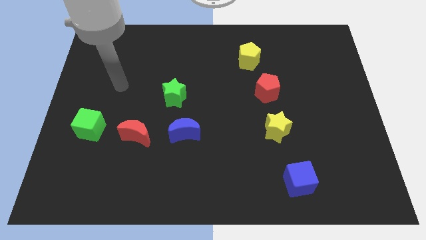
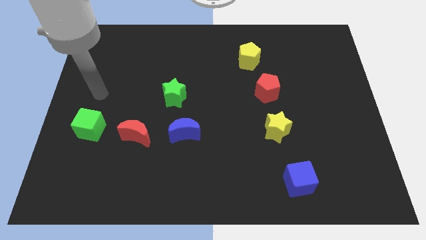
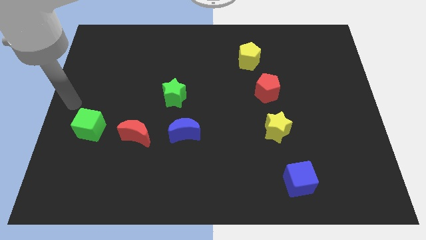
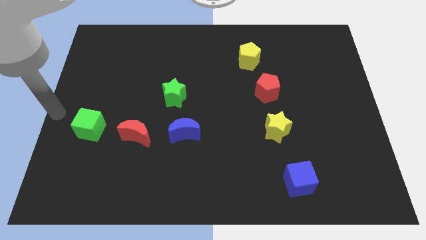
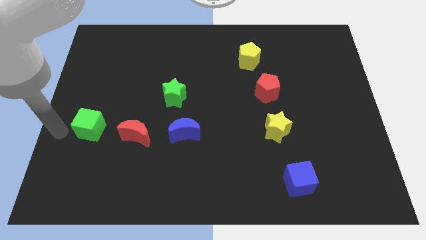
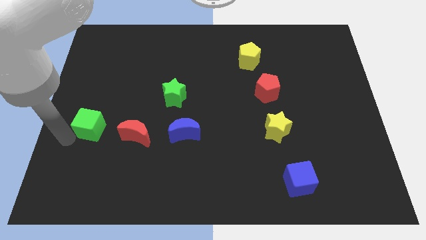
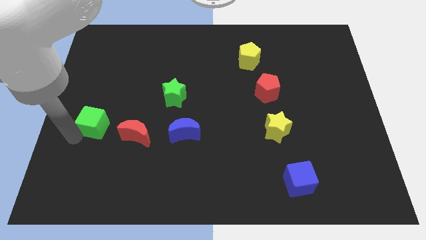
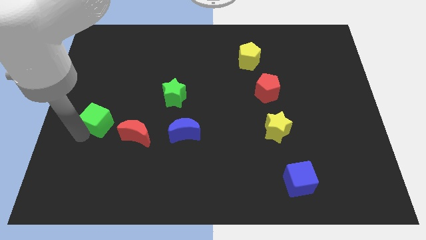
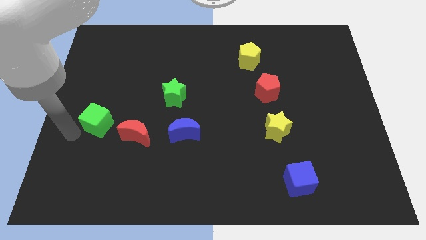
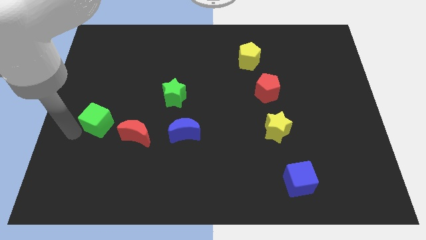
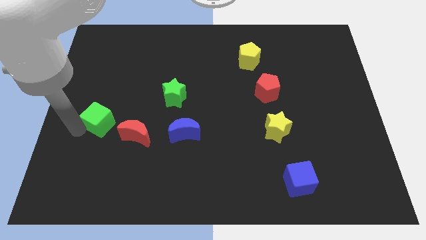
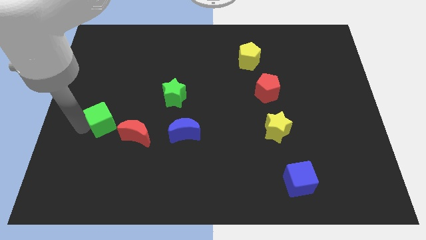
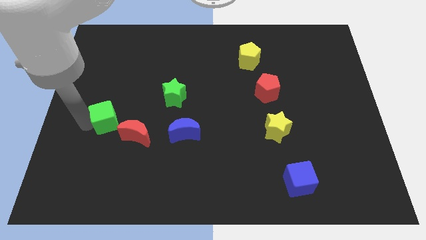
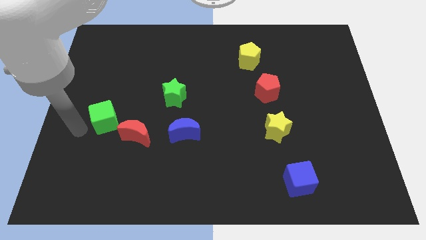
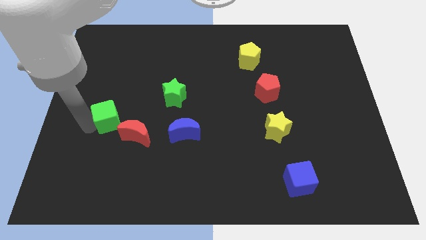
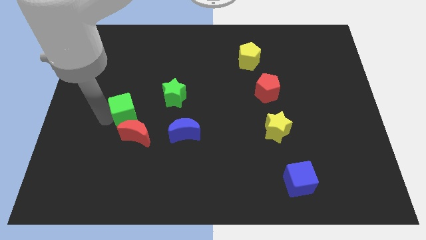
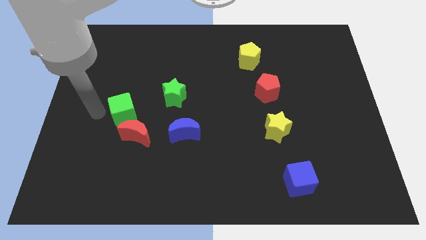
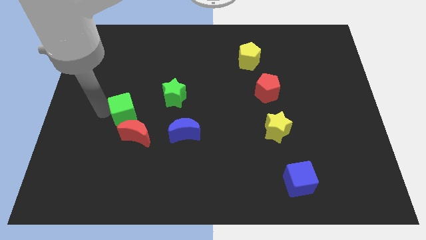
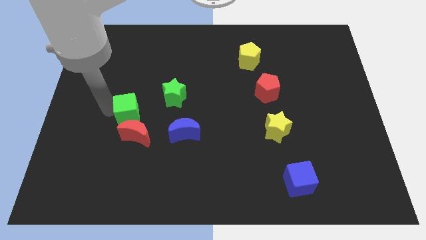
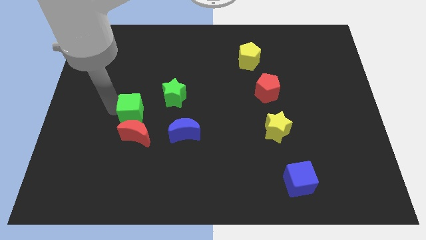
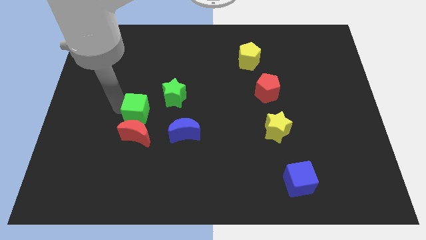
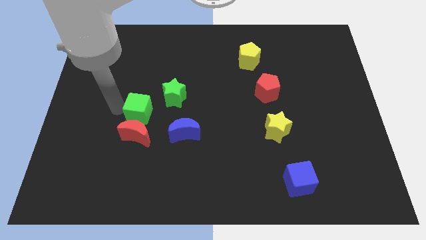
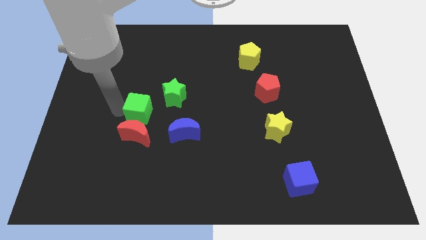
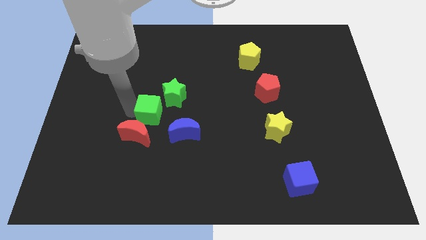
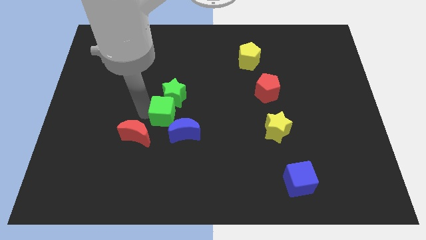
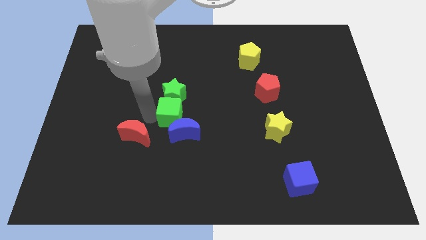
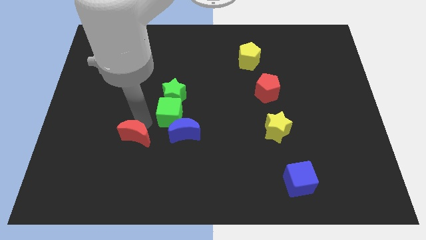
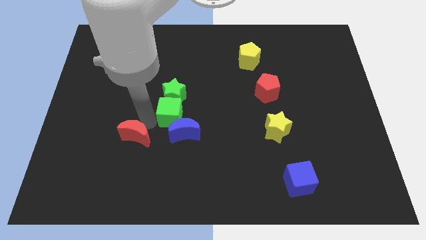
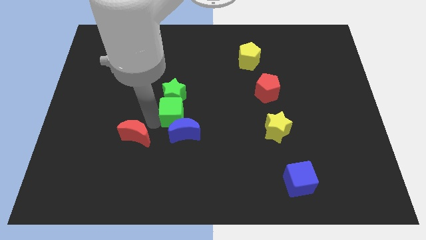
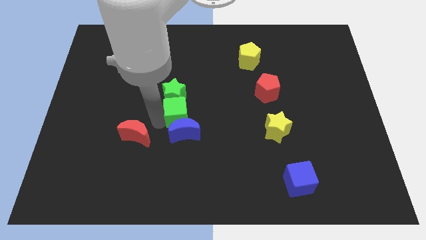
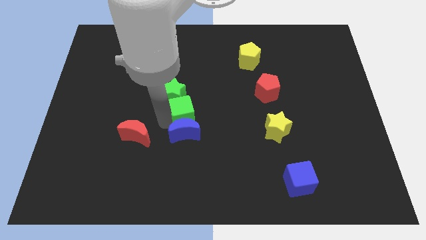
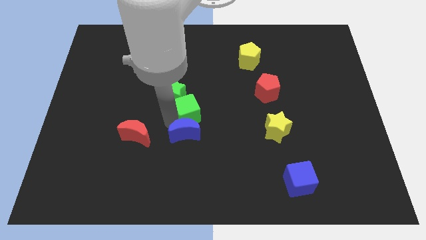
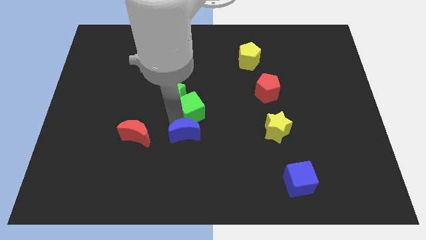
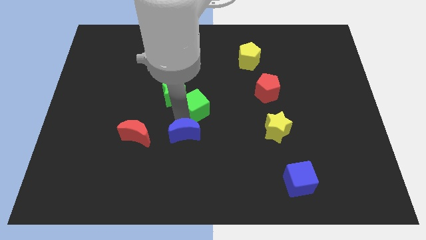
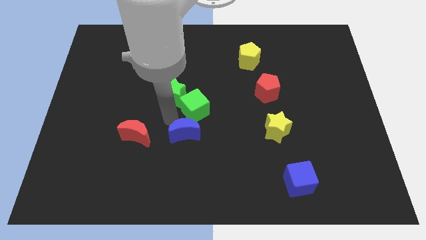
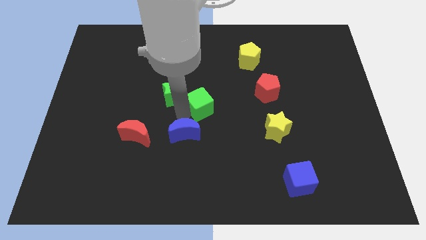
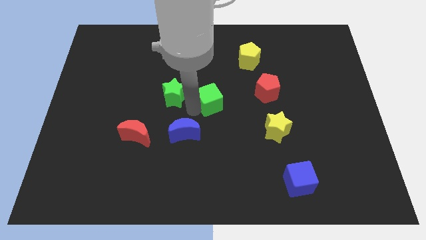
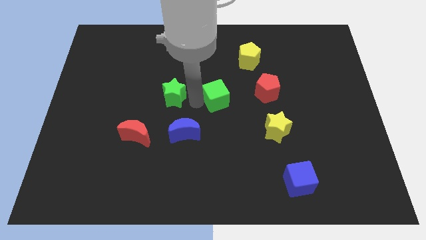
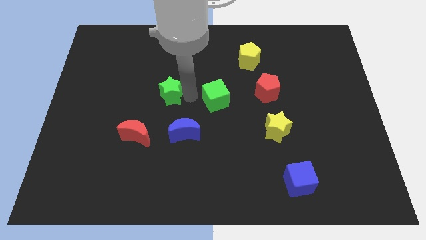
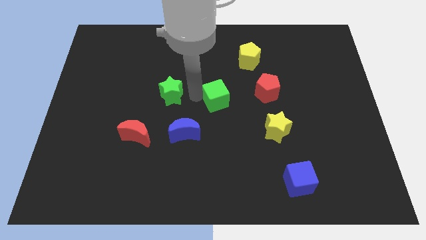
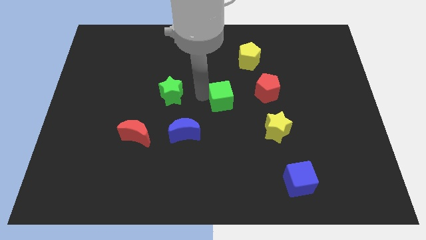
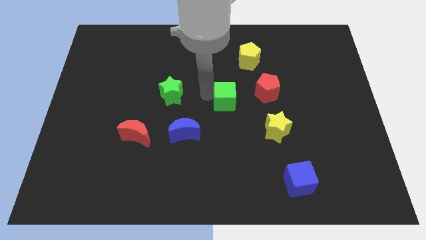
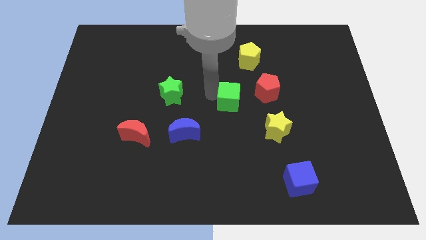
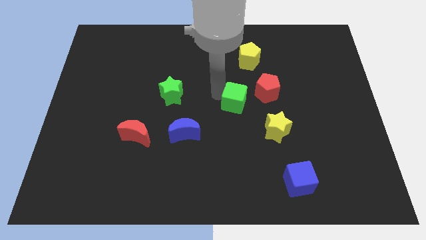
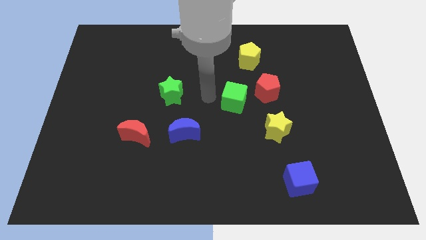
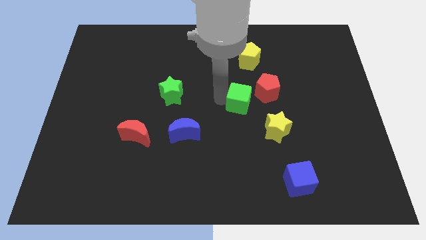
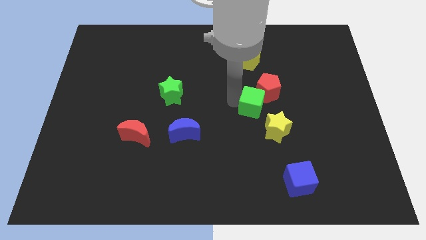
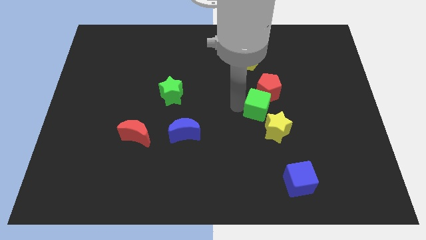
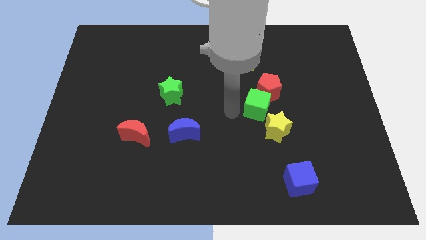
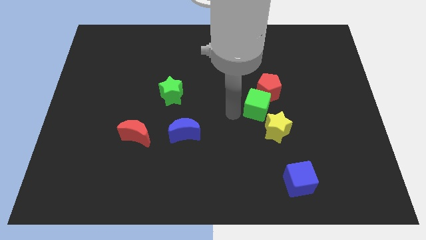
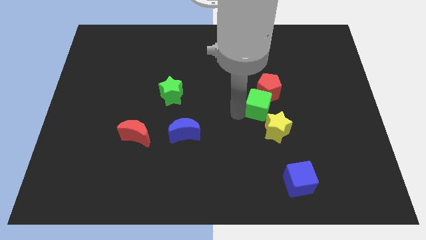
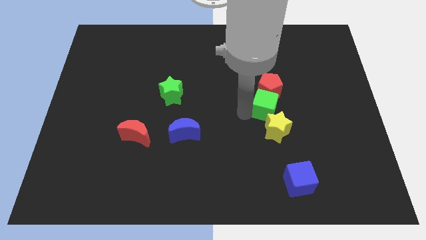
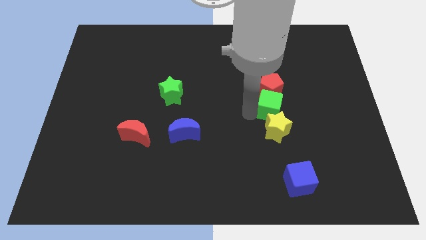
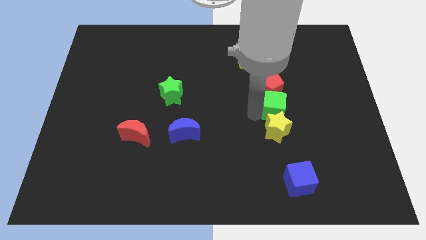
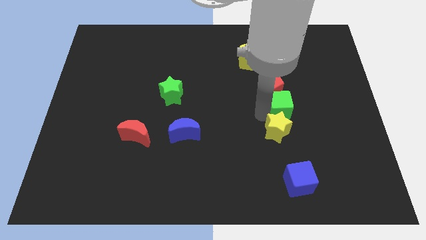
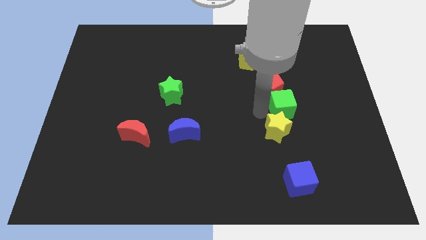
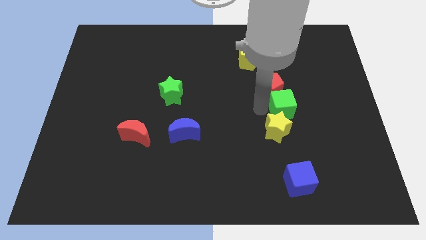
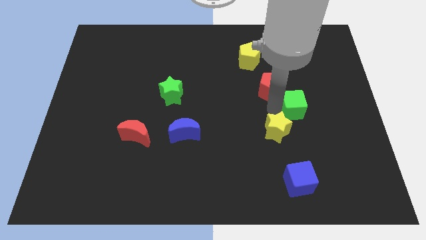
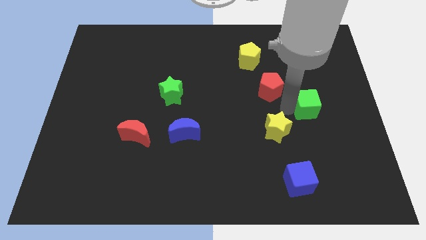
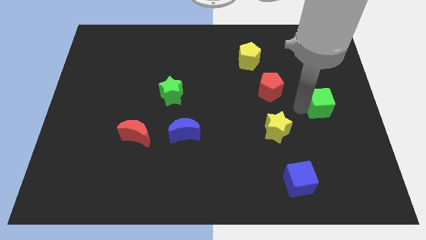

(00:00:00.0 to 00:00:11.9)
slide the green cube to the right side of the board

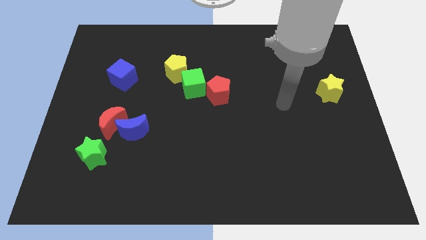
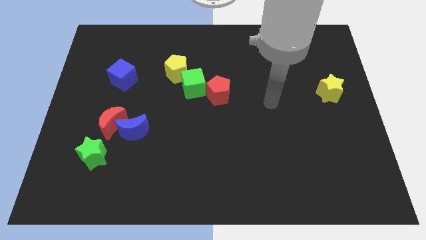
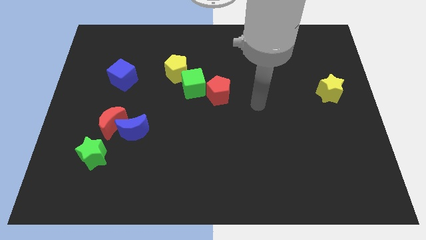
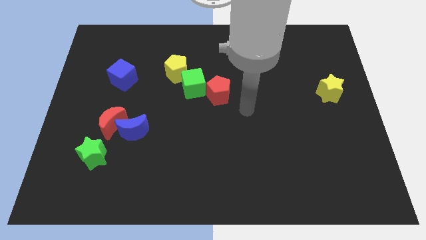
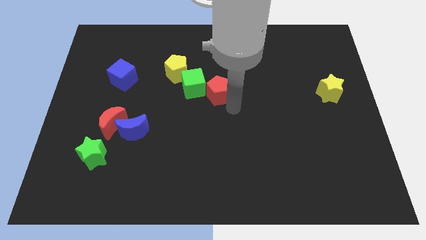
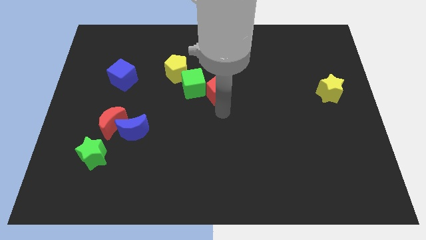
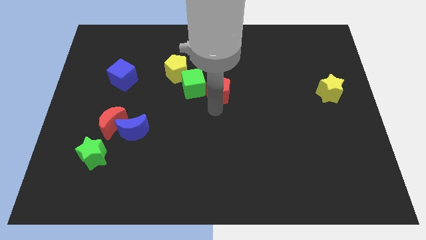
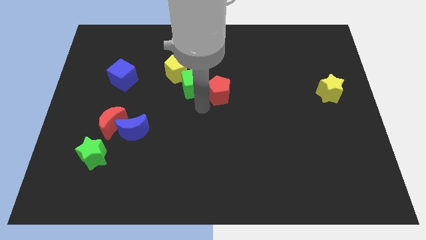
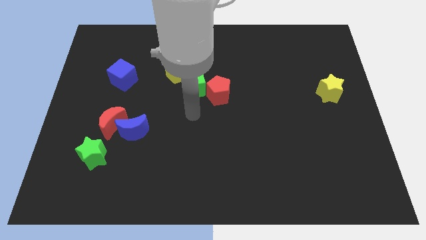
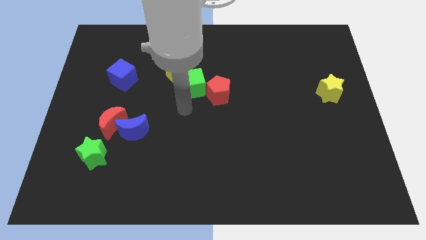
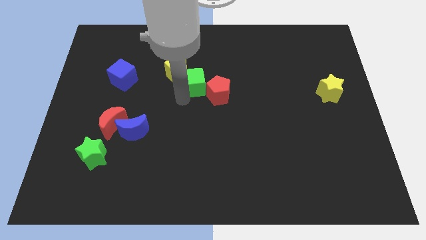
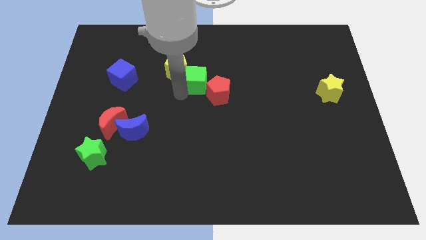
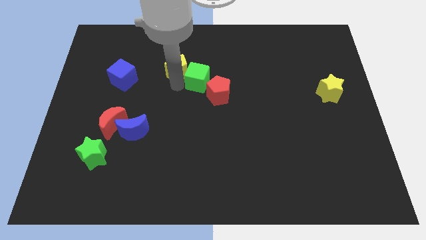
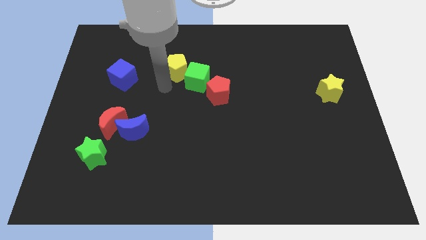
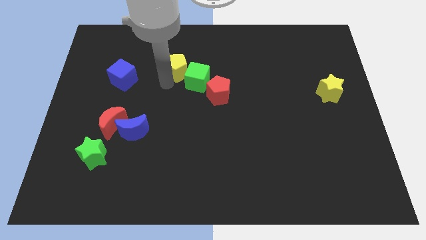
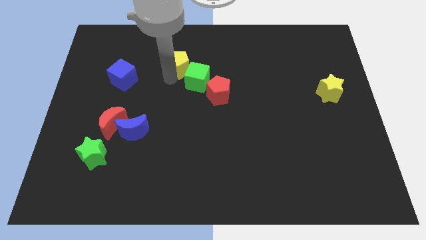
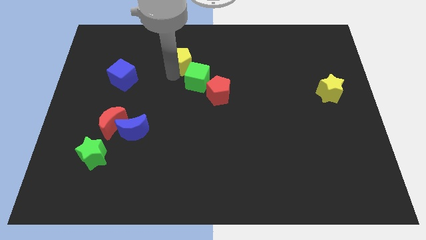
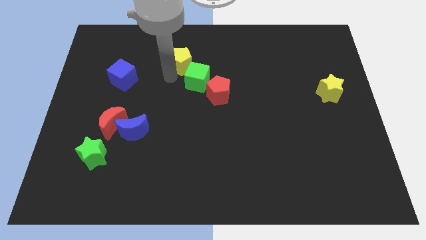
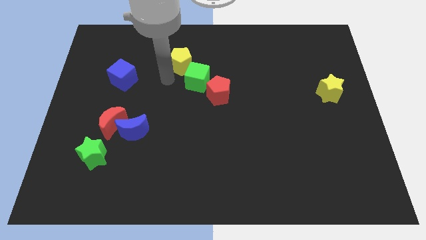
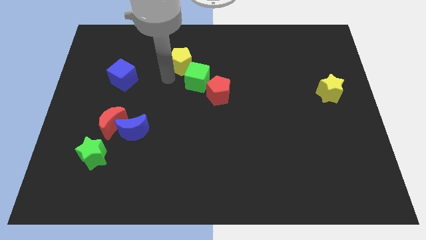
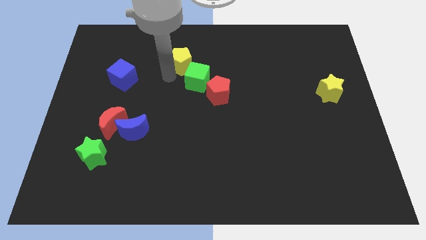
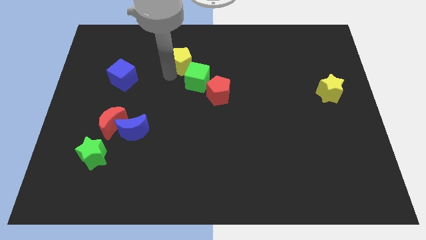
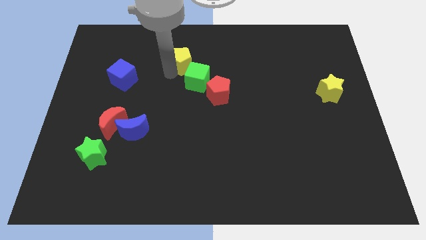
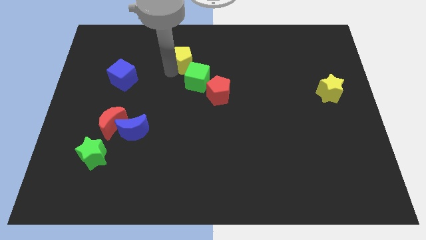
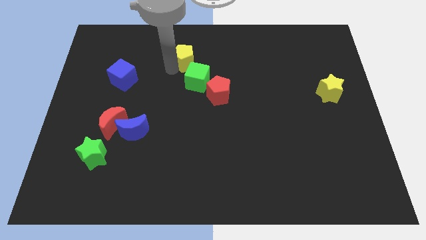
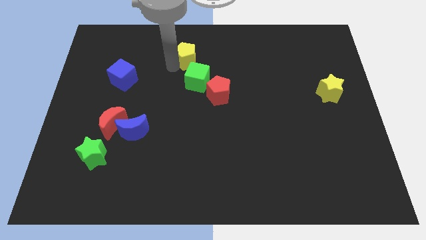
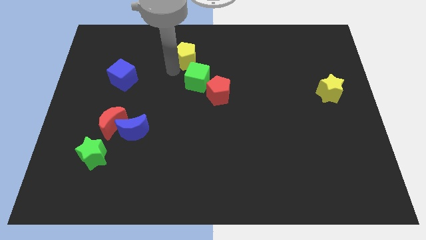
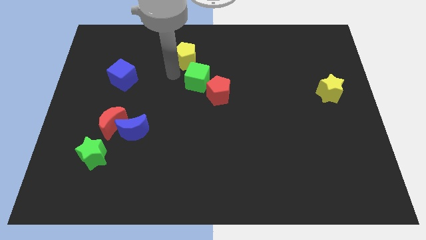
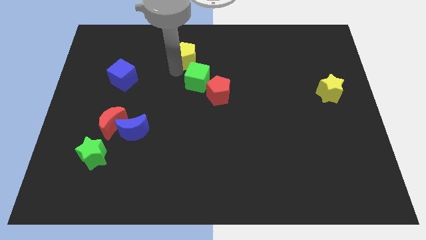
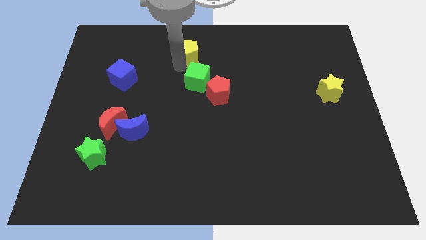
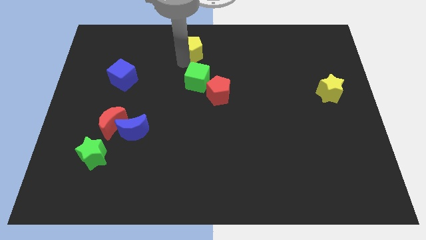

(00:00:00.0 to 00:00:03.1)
push the yellow pentagon to the top
